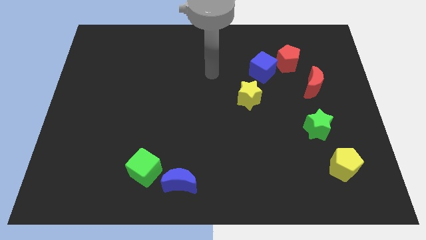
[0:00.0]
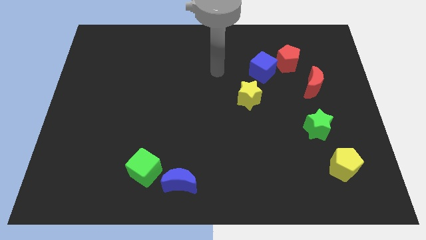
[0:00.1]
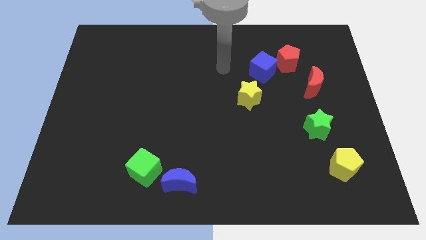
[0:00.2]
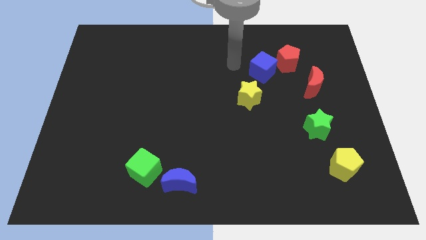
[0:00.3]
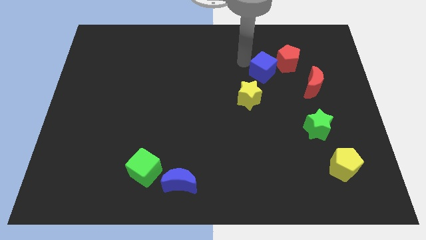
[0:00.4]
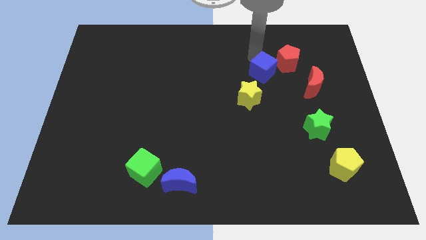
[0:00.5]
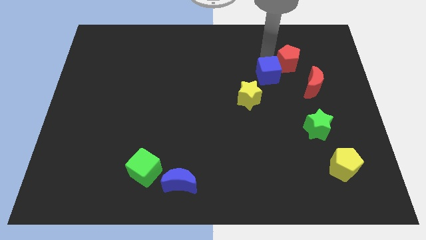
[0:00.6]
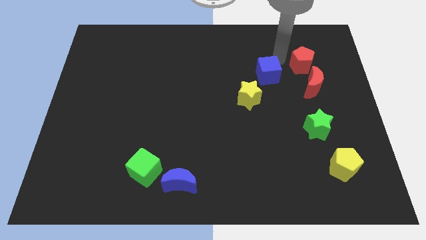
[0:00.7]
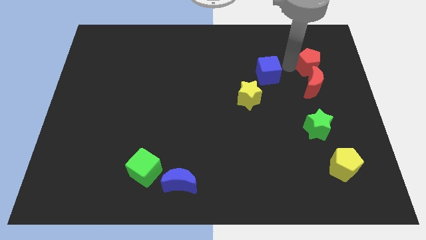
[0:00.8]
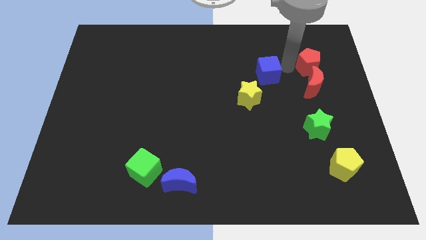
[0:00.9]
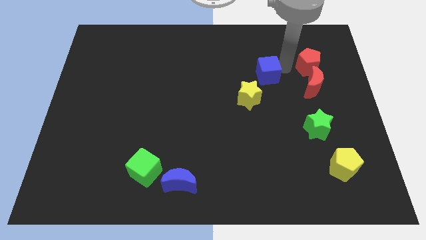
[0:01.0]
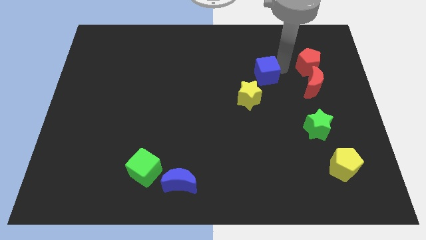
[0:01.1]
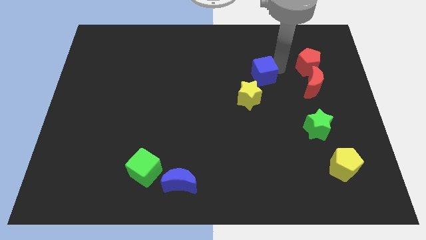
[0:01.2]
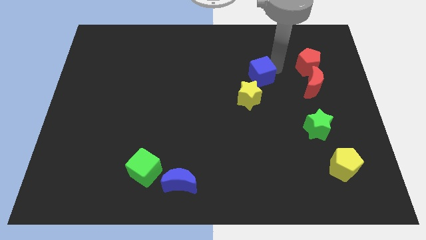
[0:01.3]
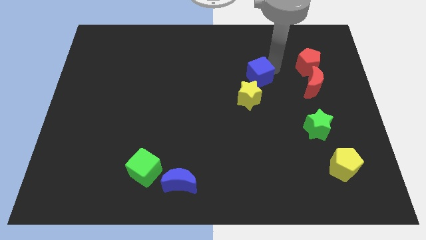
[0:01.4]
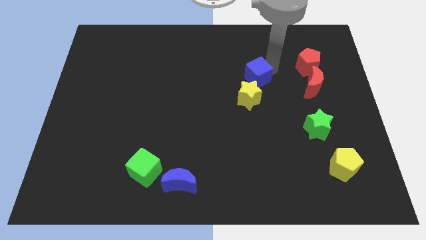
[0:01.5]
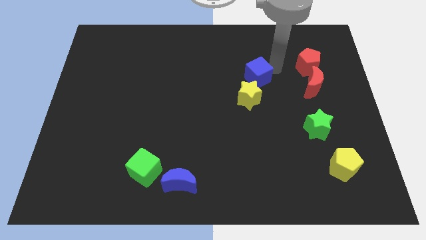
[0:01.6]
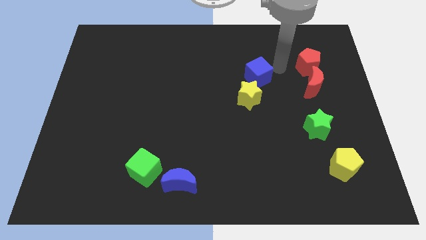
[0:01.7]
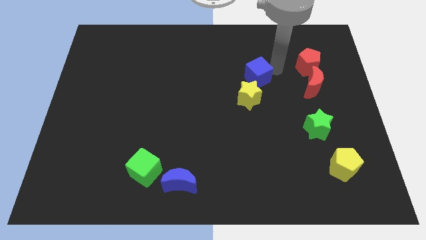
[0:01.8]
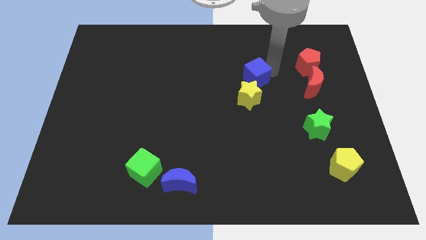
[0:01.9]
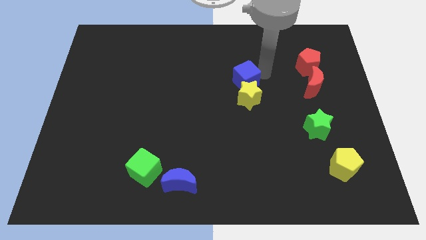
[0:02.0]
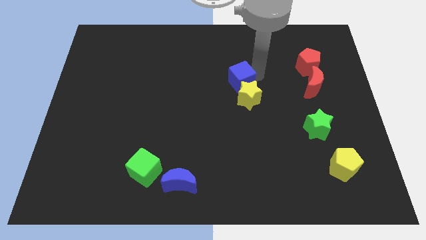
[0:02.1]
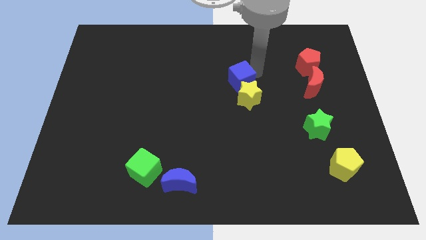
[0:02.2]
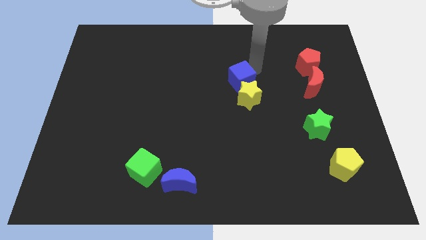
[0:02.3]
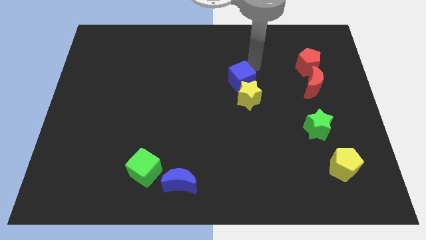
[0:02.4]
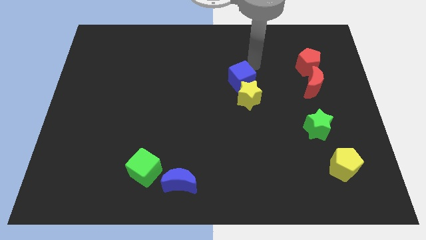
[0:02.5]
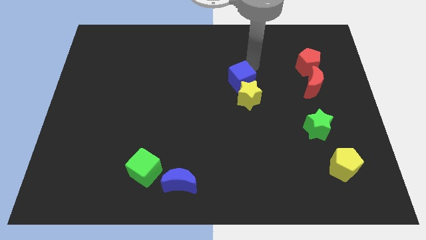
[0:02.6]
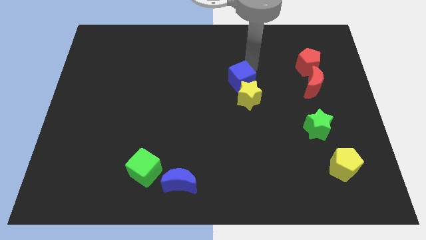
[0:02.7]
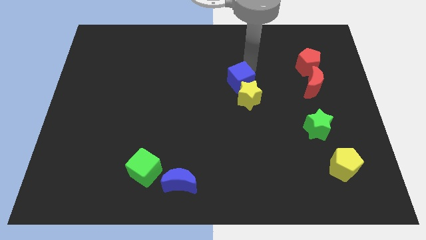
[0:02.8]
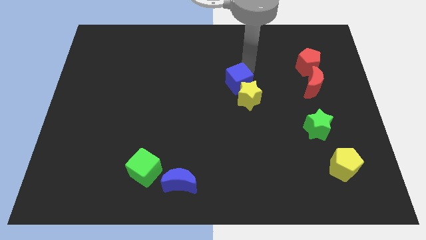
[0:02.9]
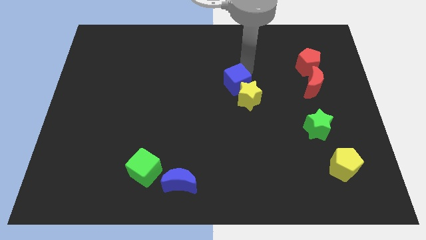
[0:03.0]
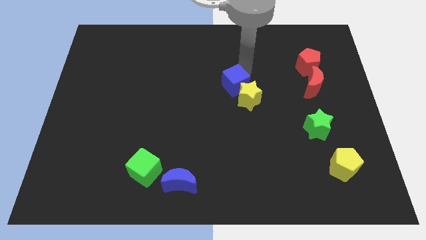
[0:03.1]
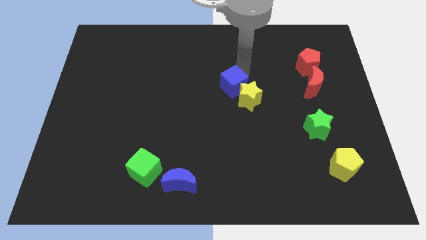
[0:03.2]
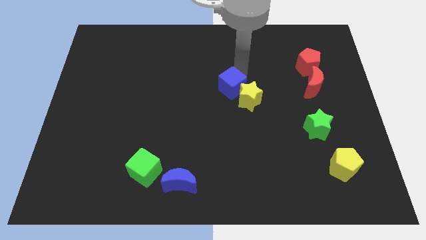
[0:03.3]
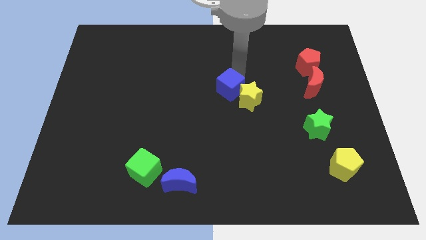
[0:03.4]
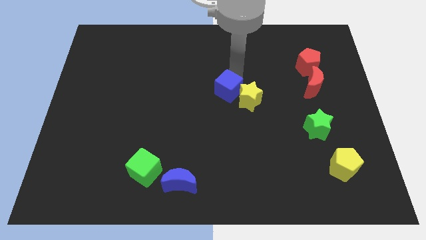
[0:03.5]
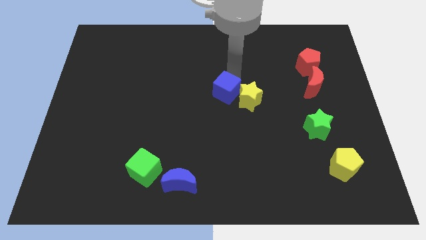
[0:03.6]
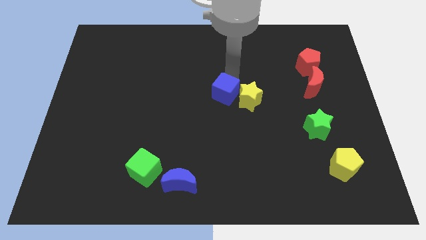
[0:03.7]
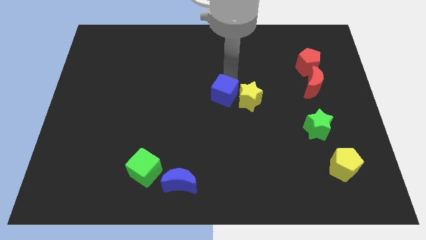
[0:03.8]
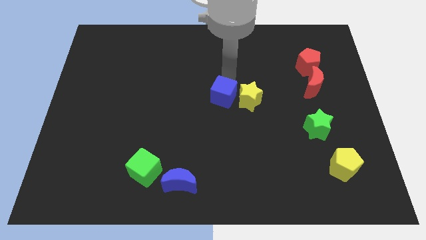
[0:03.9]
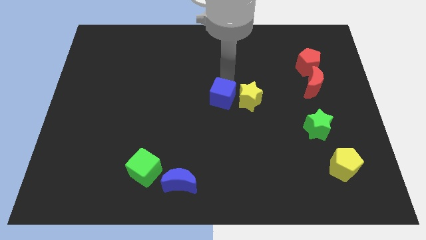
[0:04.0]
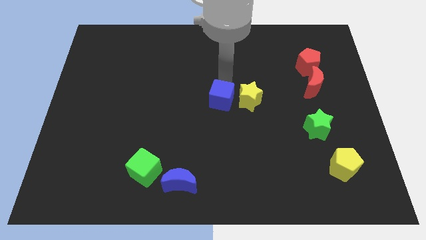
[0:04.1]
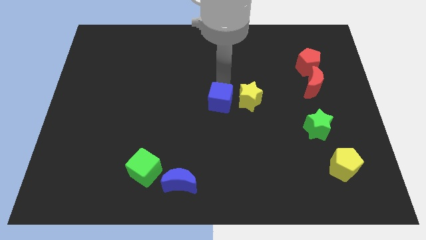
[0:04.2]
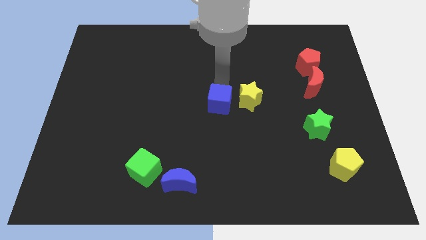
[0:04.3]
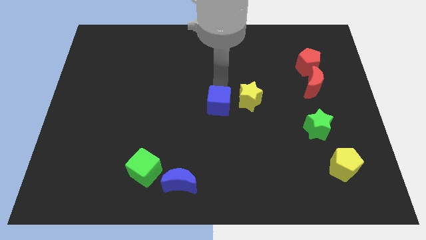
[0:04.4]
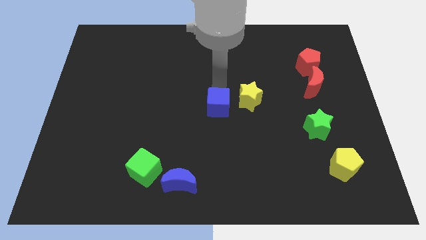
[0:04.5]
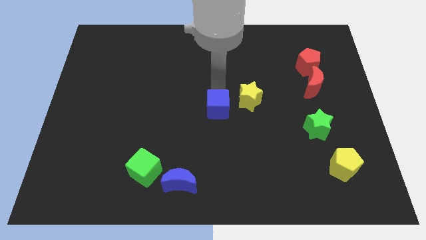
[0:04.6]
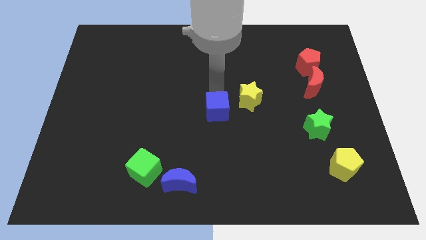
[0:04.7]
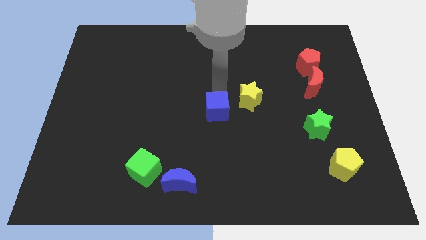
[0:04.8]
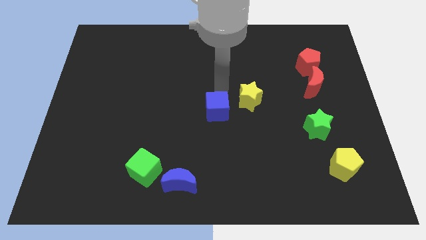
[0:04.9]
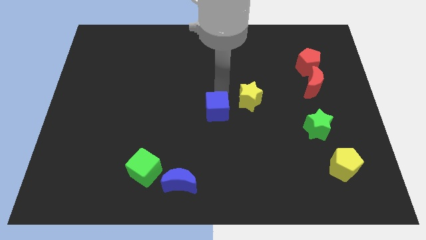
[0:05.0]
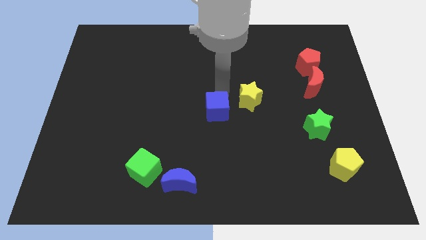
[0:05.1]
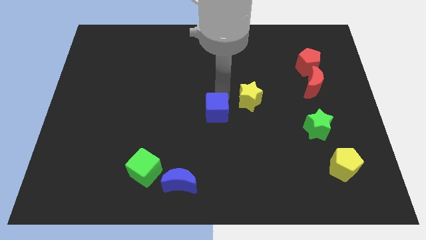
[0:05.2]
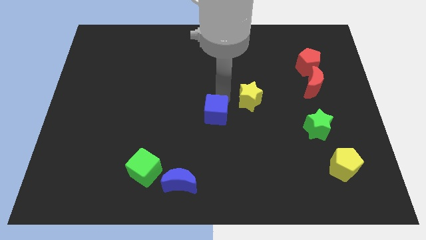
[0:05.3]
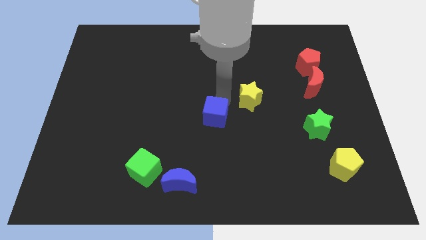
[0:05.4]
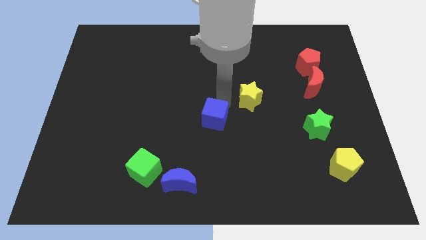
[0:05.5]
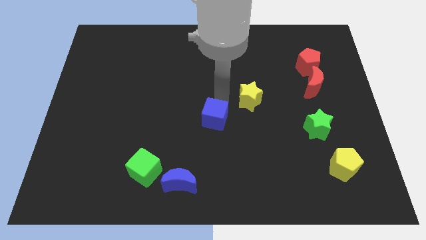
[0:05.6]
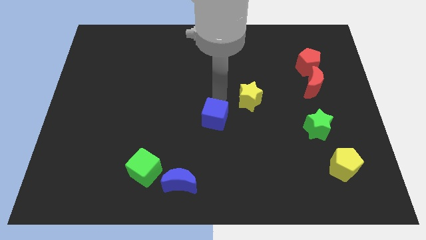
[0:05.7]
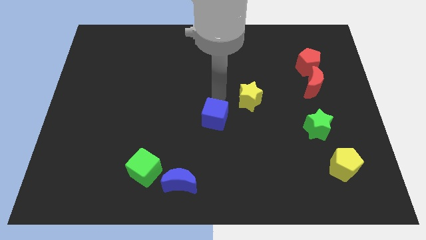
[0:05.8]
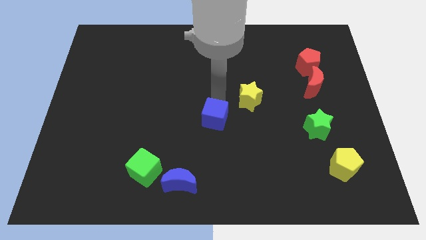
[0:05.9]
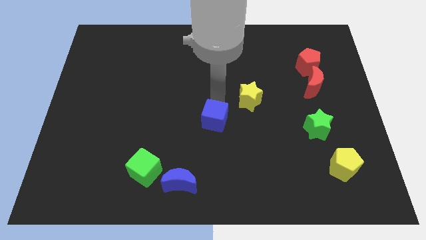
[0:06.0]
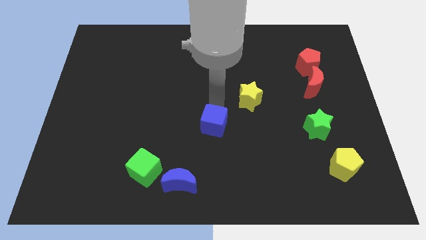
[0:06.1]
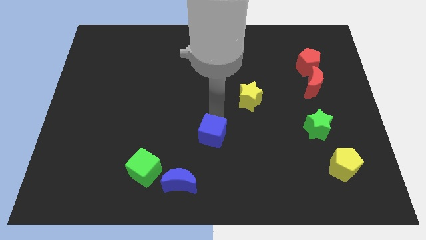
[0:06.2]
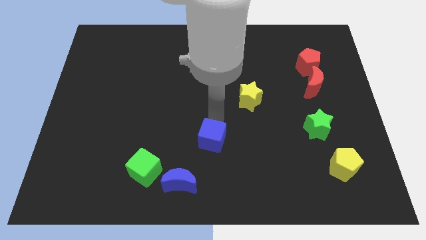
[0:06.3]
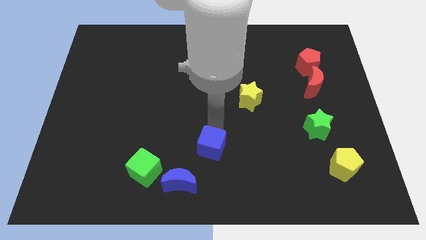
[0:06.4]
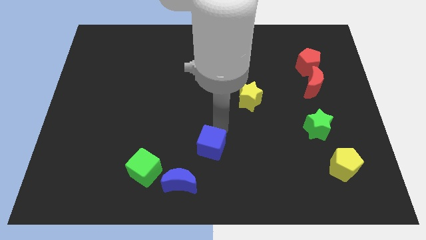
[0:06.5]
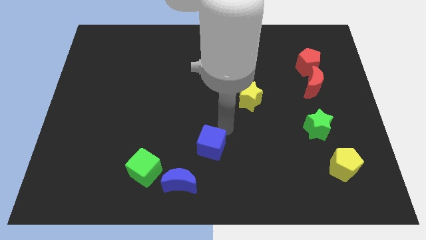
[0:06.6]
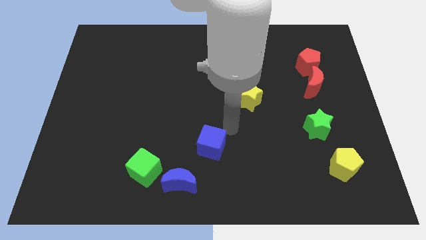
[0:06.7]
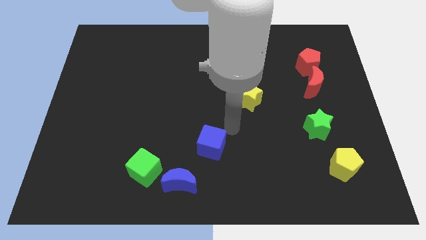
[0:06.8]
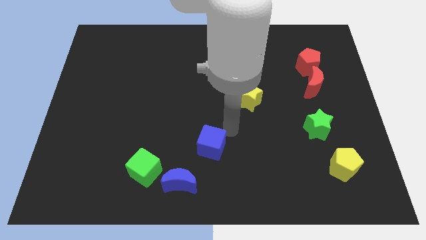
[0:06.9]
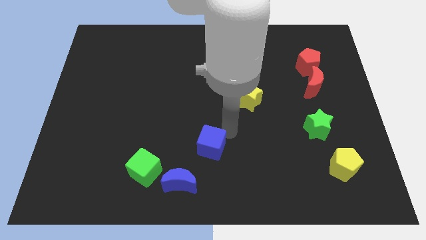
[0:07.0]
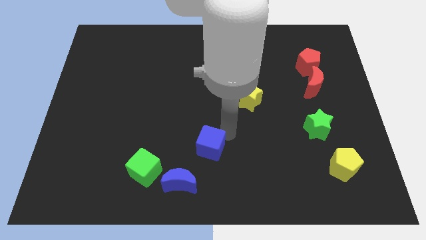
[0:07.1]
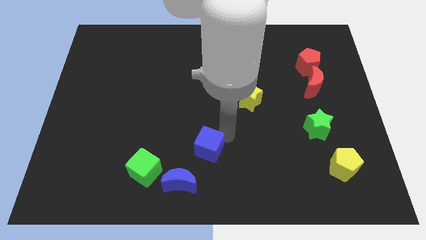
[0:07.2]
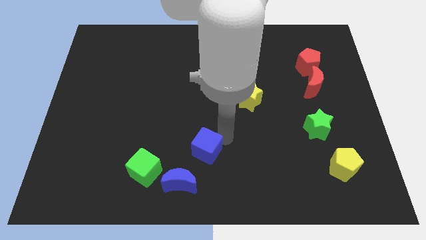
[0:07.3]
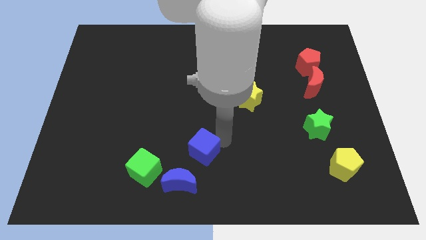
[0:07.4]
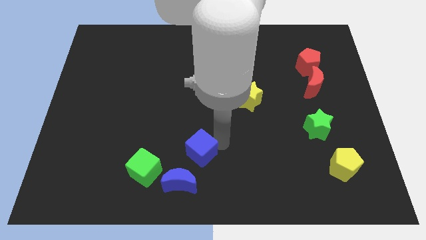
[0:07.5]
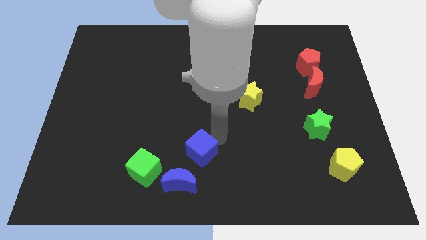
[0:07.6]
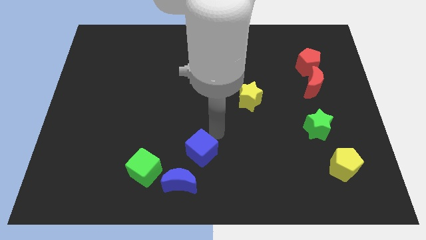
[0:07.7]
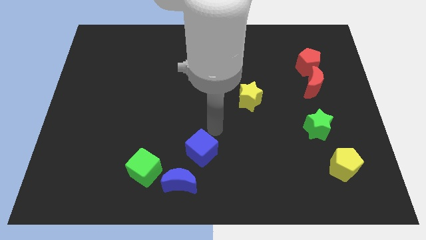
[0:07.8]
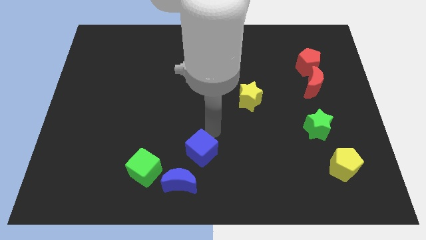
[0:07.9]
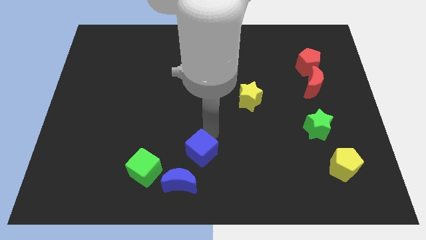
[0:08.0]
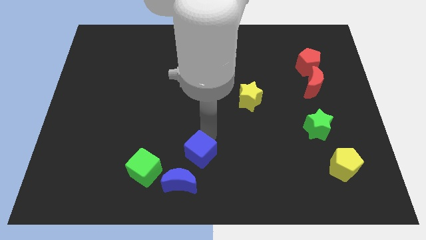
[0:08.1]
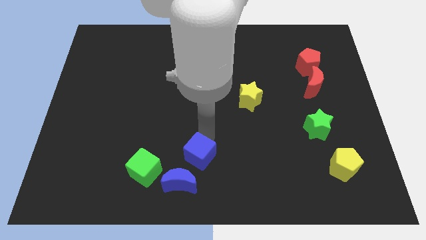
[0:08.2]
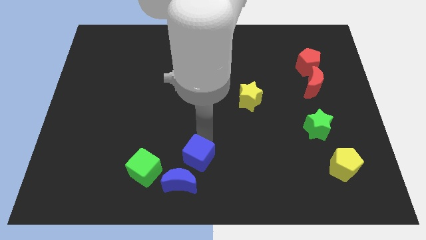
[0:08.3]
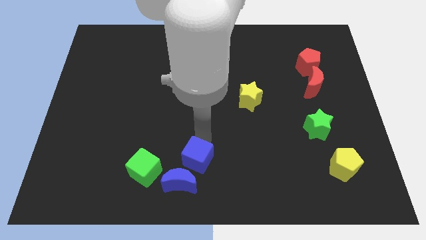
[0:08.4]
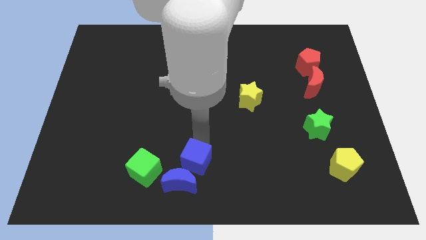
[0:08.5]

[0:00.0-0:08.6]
put the blue cube towards the blue moon
